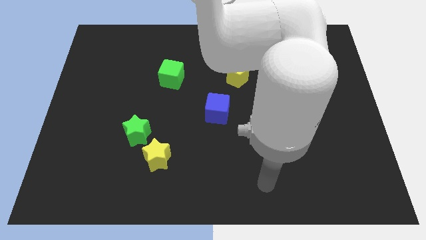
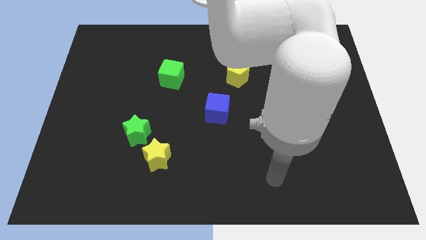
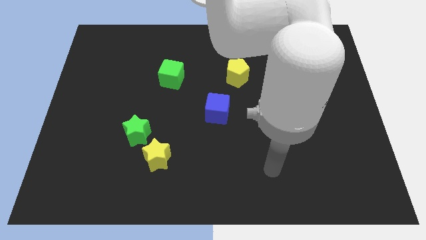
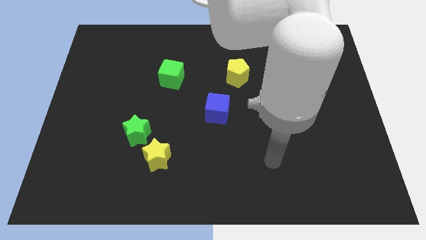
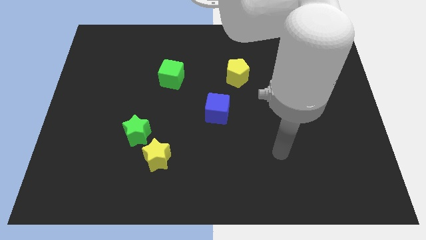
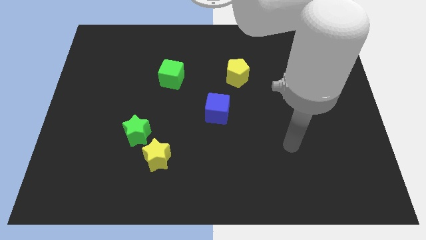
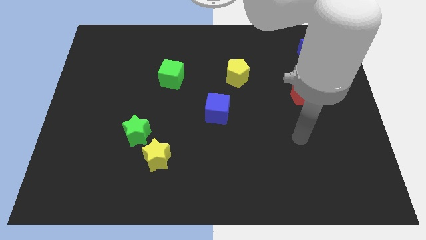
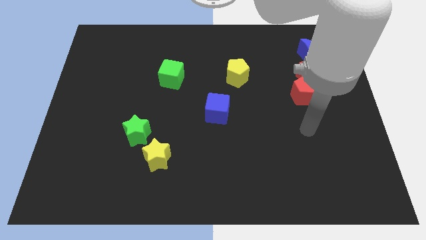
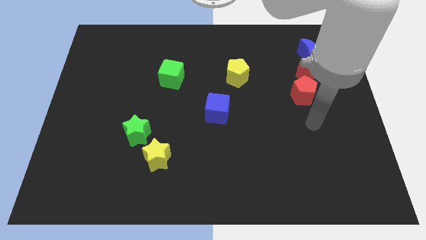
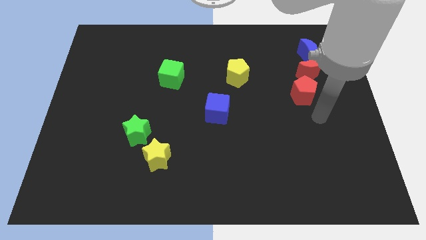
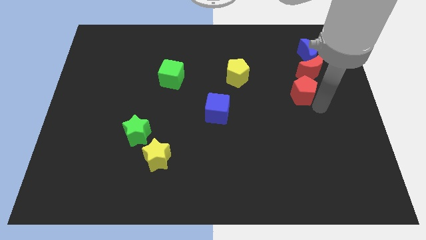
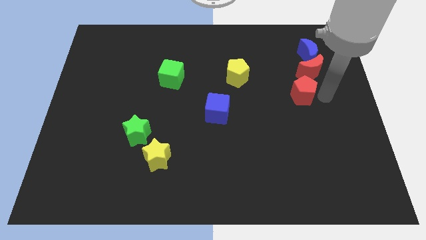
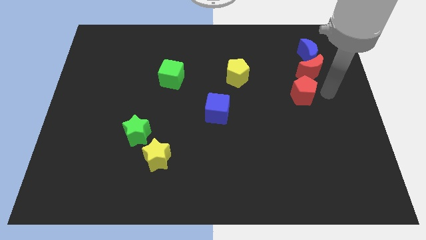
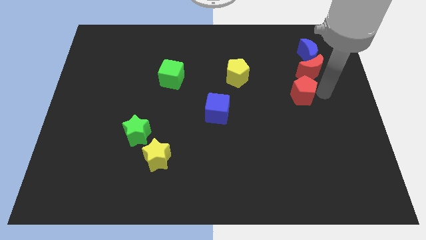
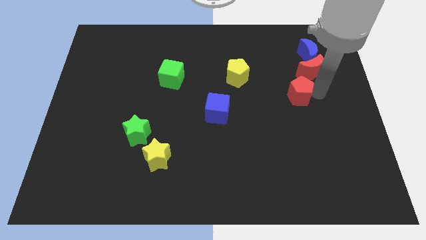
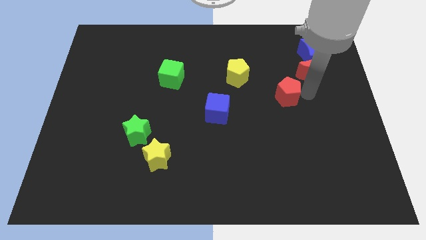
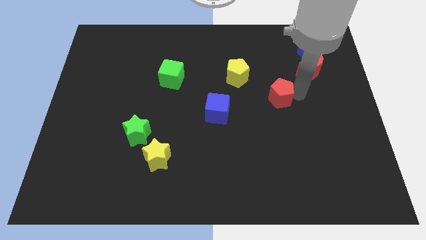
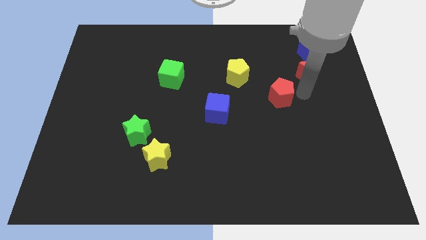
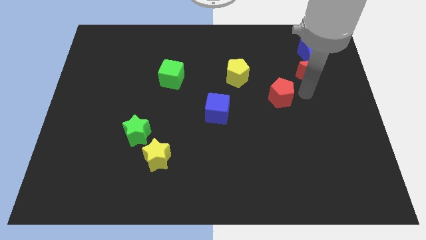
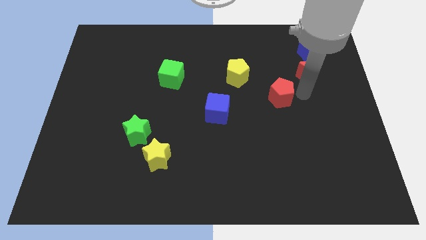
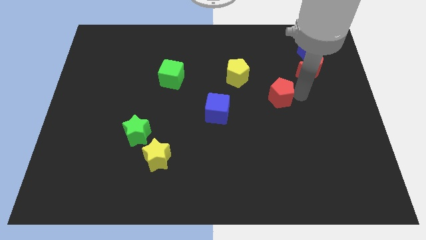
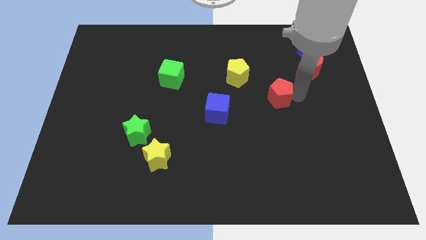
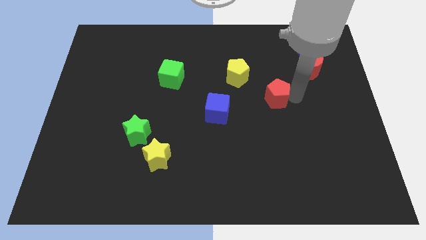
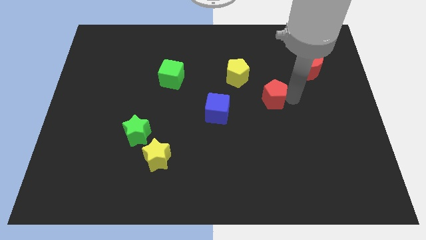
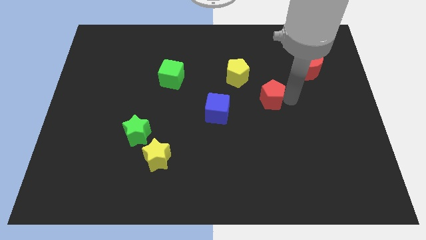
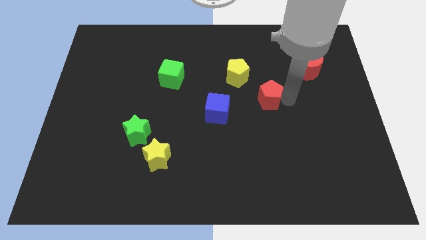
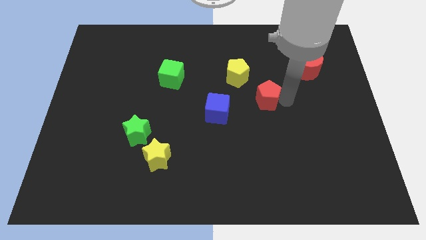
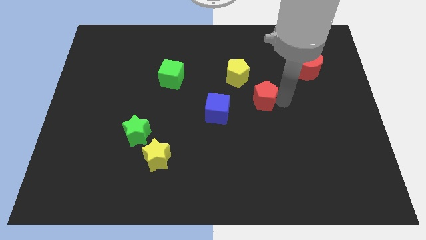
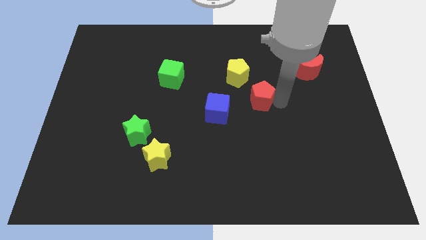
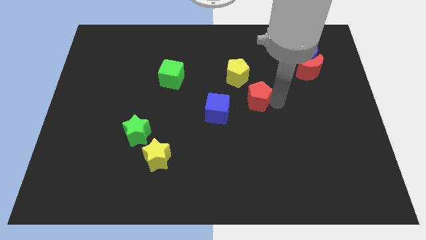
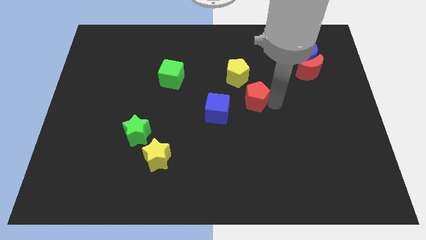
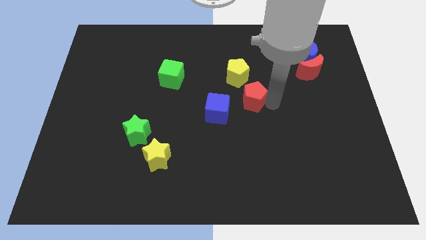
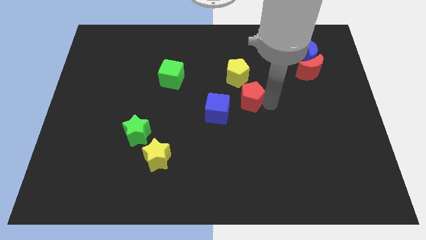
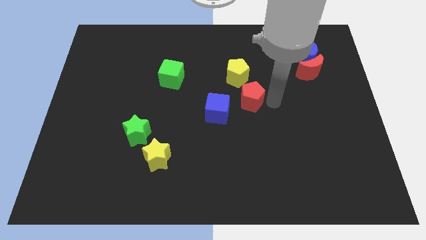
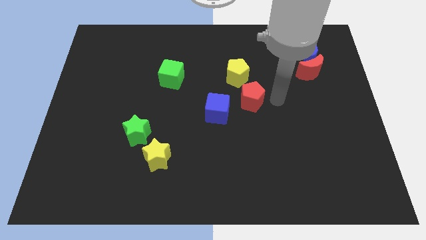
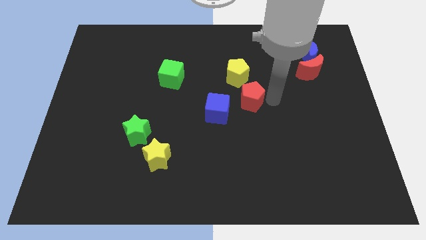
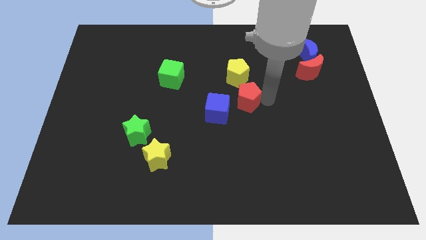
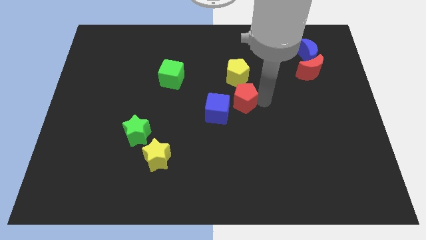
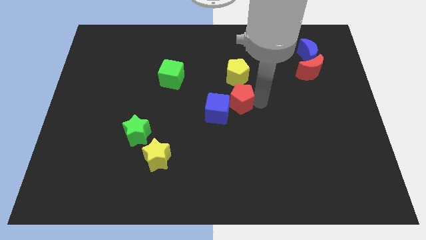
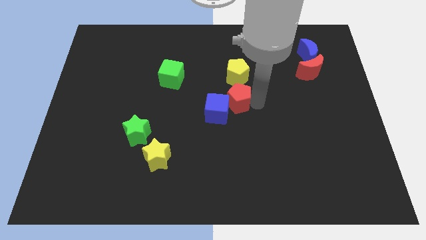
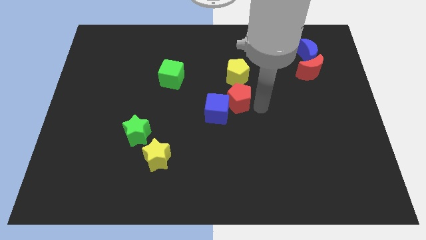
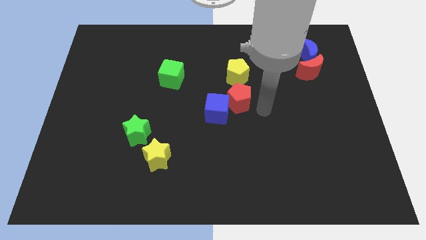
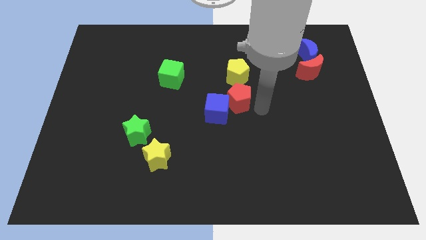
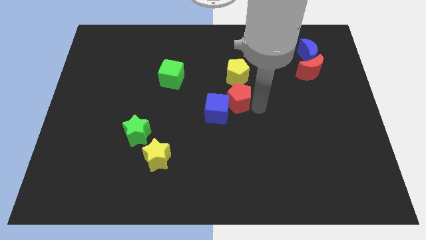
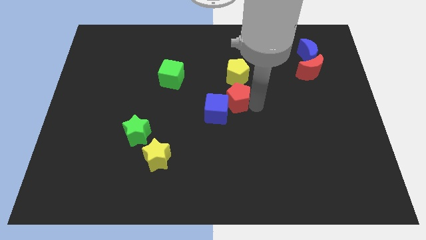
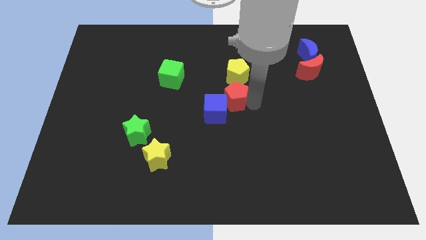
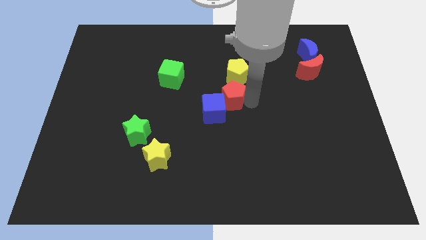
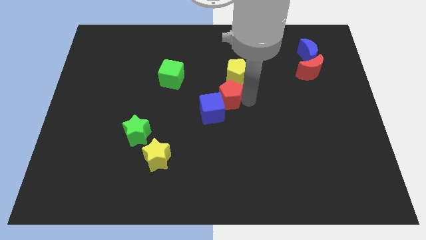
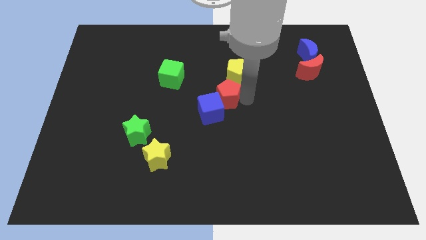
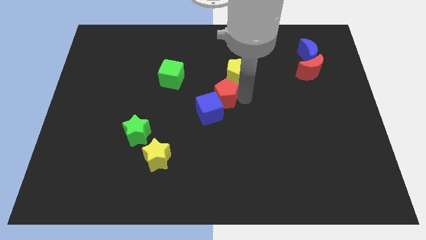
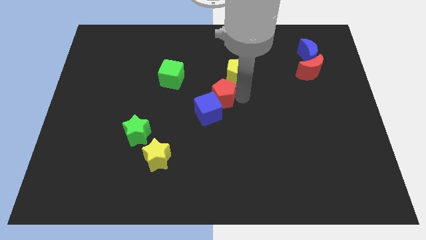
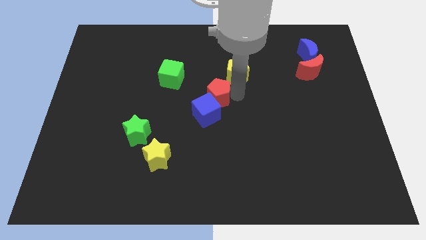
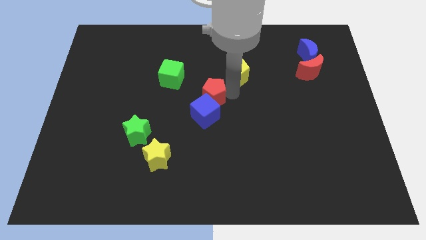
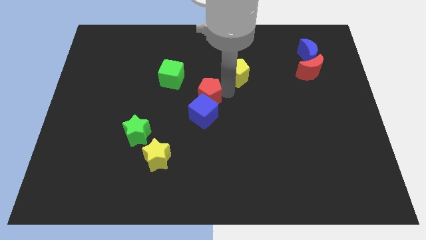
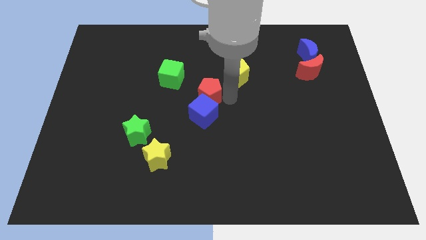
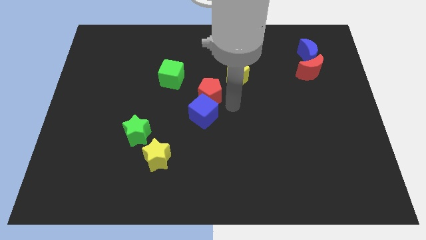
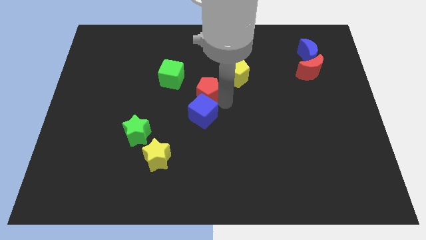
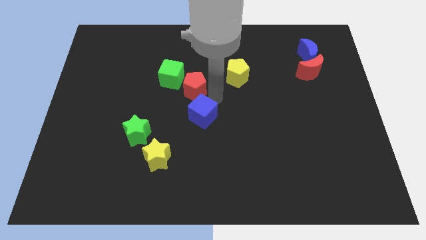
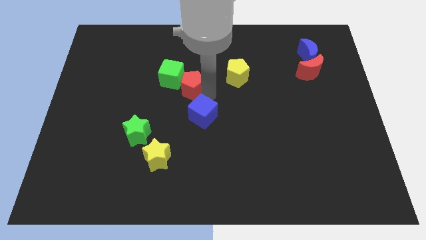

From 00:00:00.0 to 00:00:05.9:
move the red pentagon towards the green cube

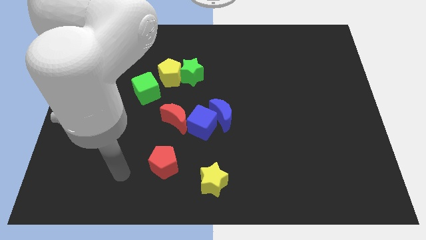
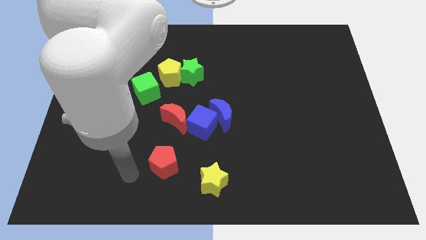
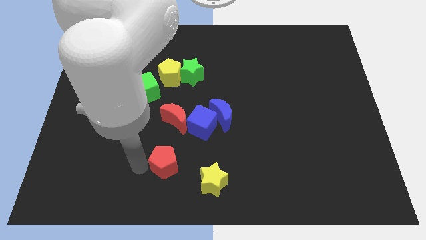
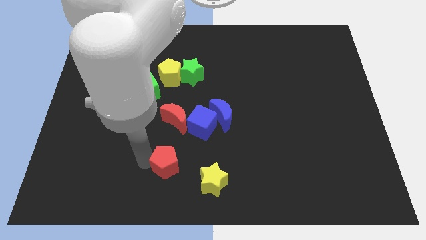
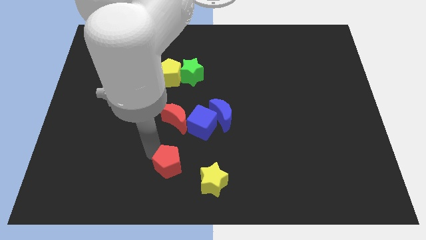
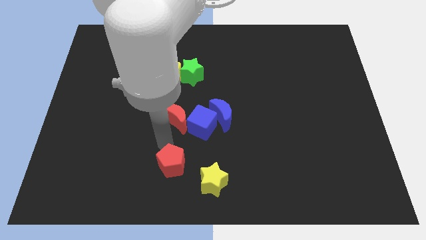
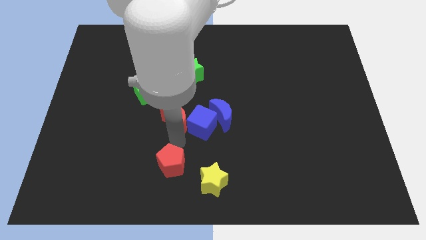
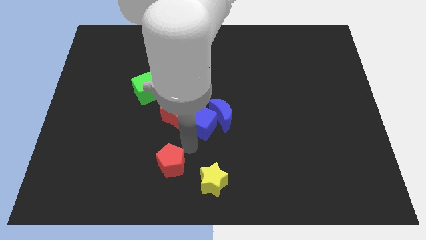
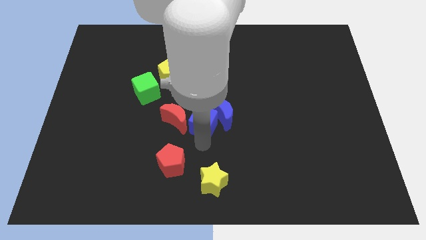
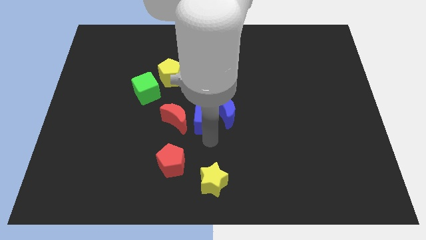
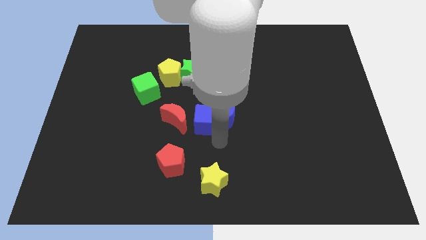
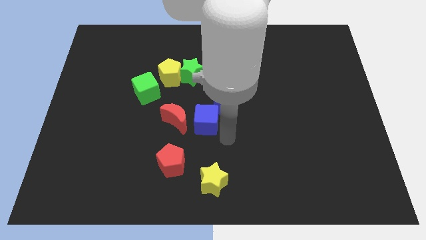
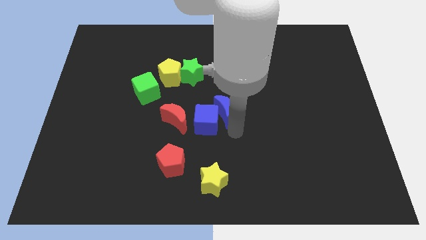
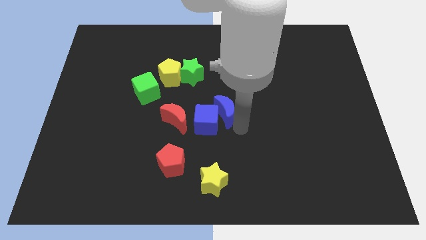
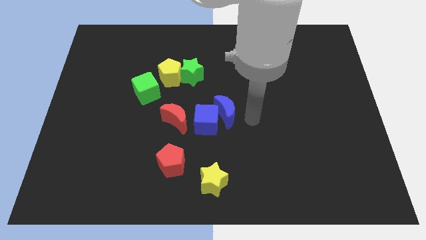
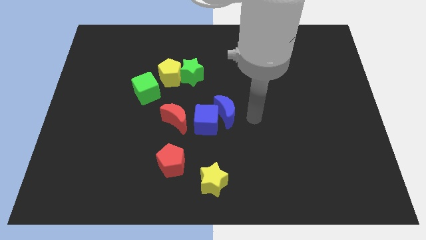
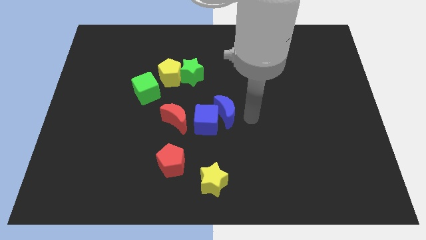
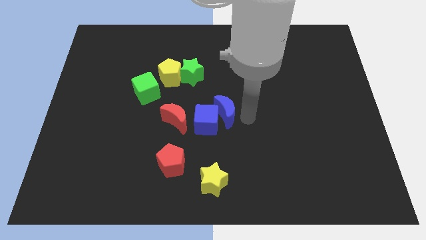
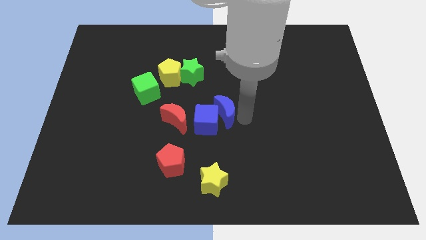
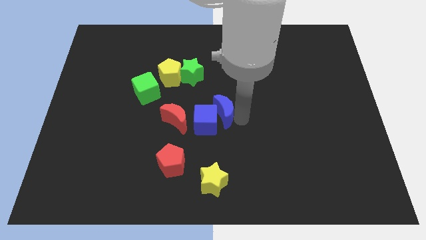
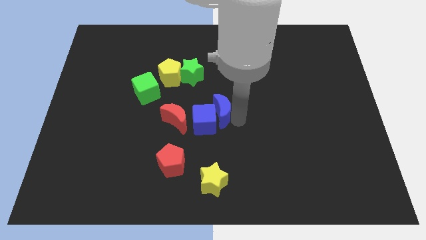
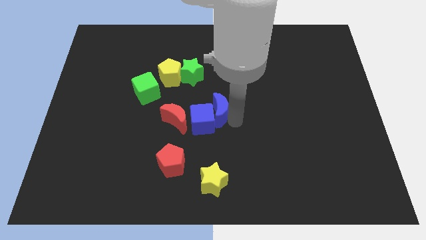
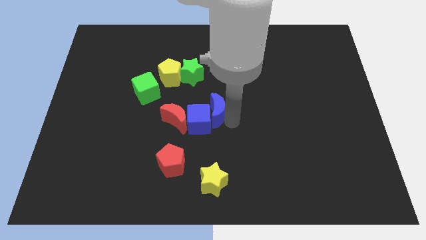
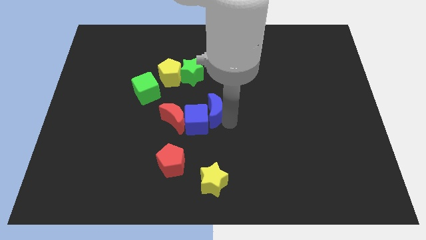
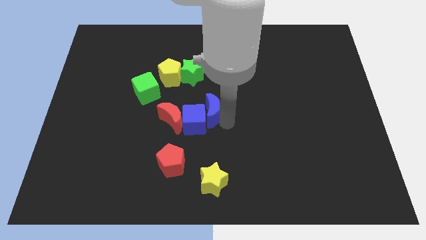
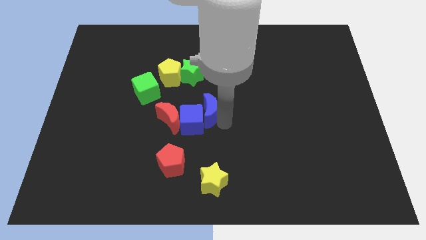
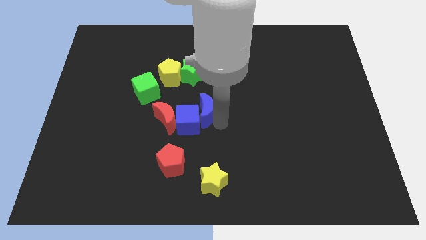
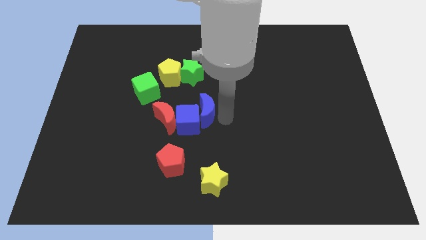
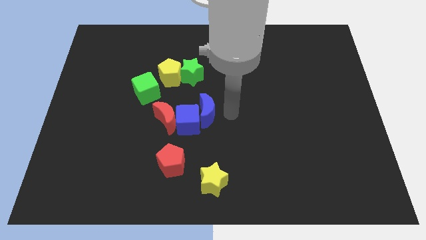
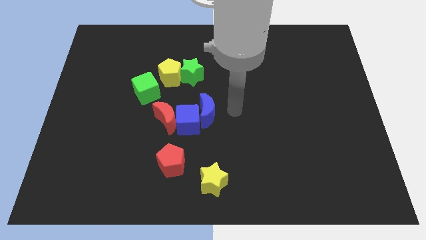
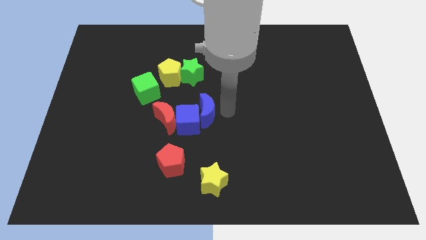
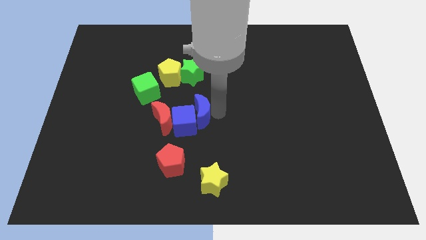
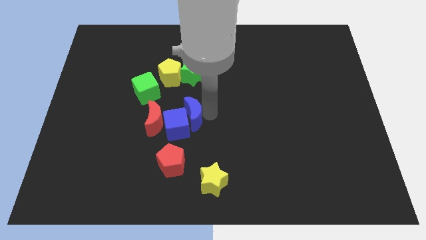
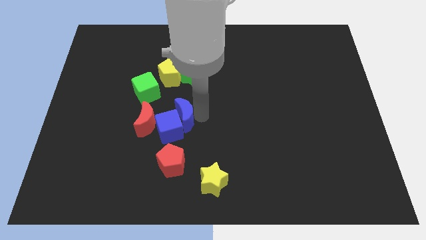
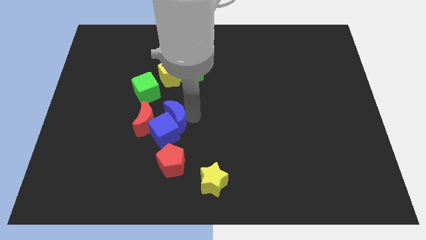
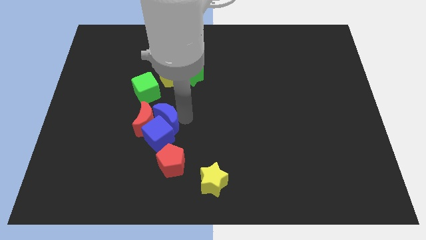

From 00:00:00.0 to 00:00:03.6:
move the blue moon to the red moon
